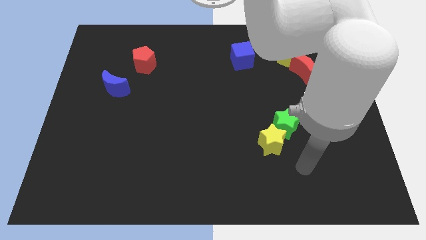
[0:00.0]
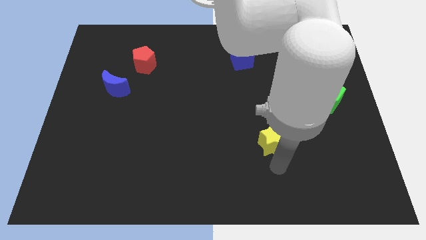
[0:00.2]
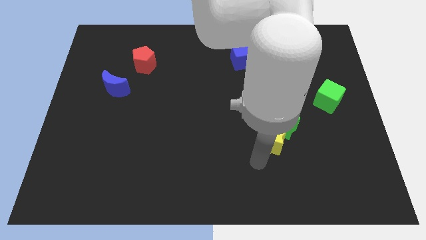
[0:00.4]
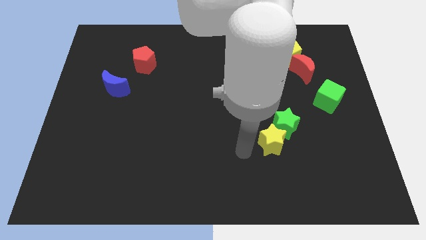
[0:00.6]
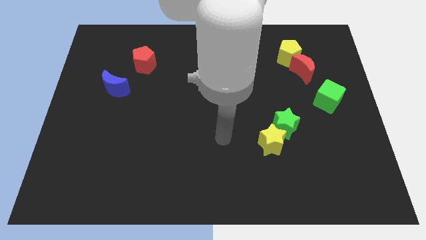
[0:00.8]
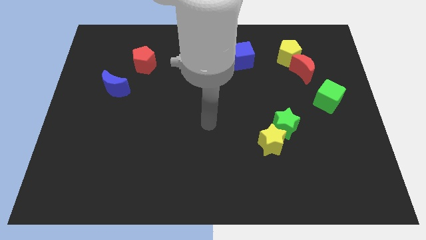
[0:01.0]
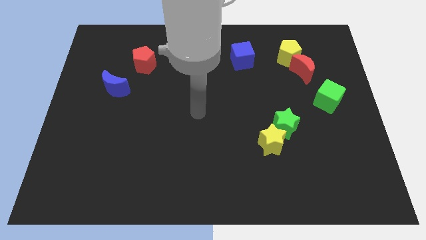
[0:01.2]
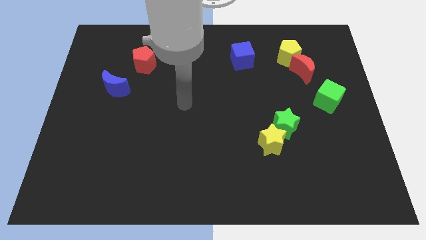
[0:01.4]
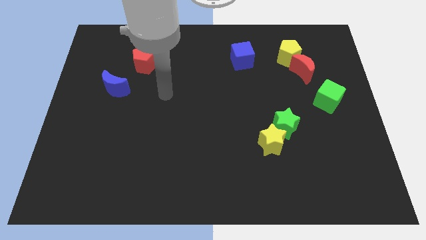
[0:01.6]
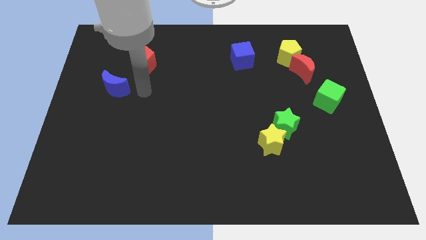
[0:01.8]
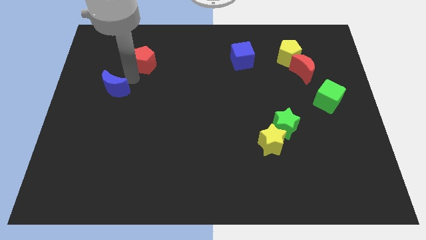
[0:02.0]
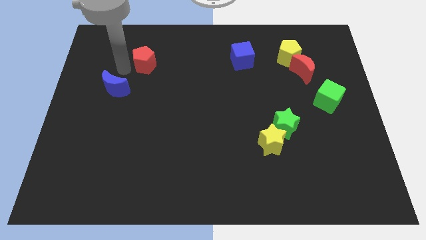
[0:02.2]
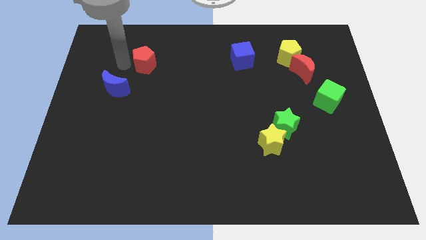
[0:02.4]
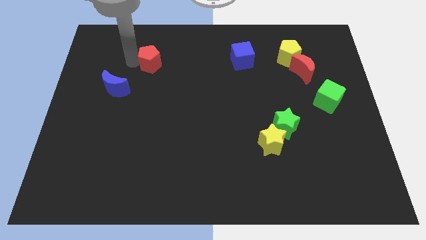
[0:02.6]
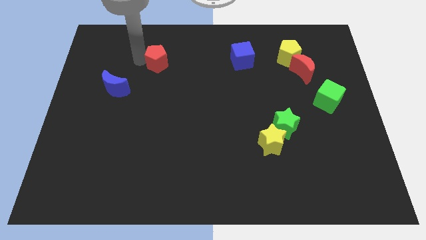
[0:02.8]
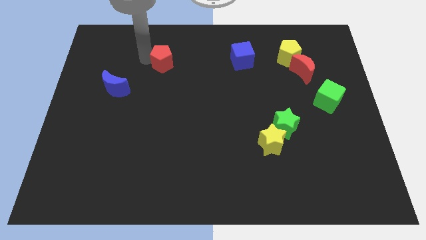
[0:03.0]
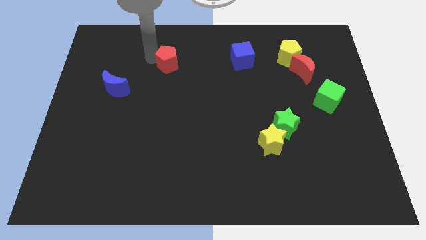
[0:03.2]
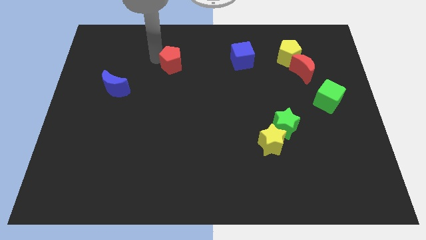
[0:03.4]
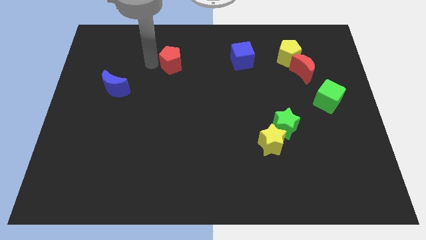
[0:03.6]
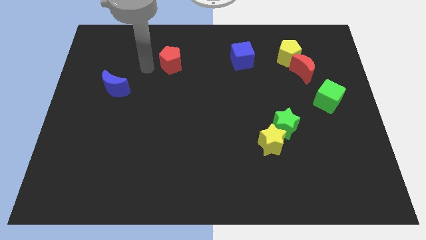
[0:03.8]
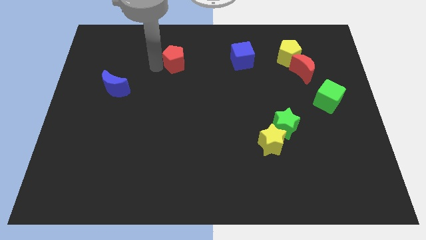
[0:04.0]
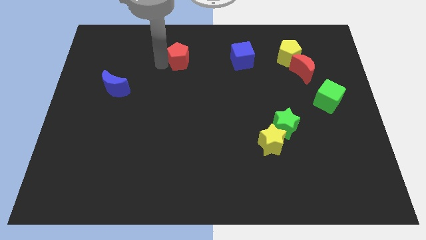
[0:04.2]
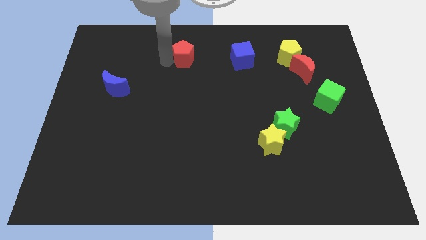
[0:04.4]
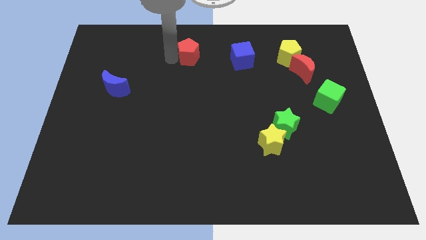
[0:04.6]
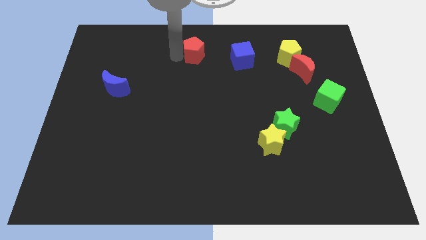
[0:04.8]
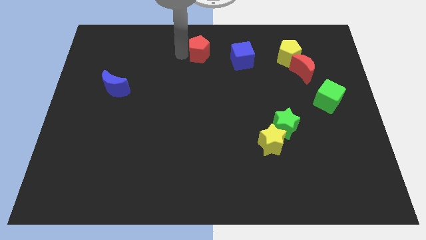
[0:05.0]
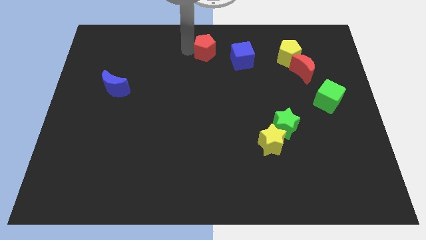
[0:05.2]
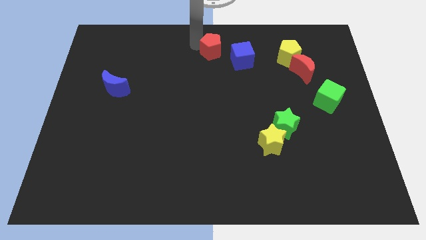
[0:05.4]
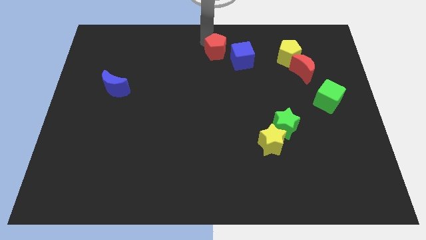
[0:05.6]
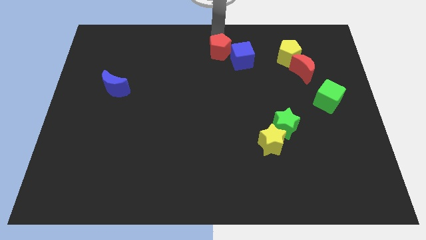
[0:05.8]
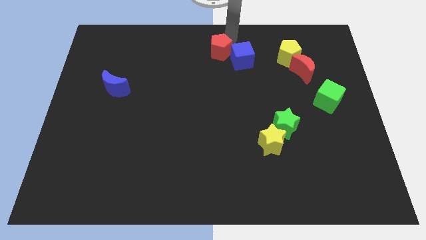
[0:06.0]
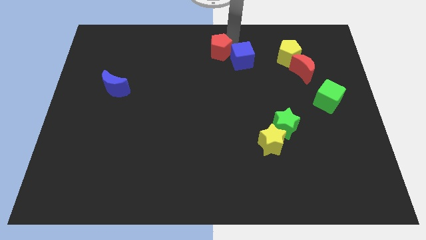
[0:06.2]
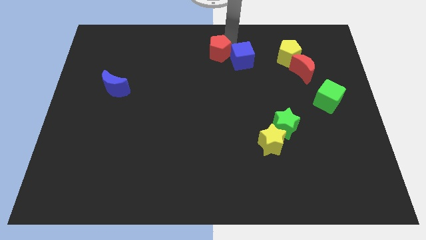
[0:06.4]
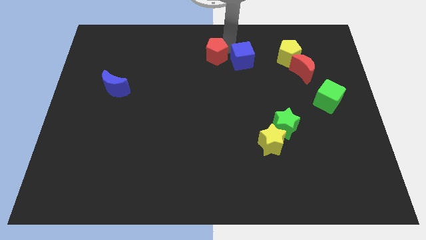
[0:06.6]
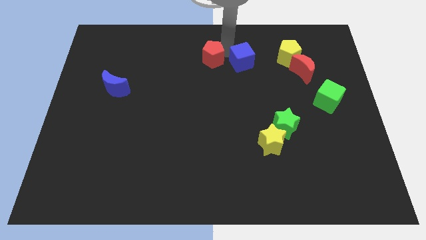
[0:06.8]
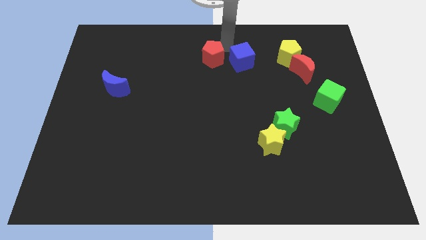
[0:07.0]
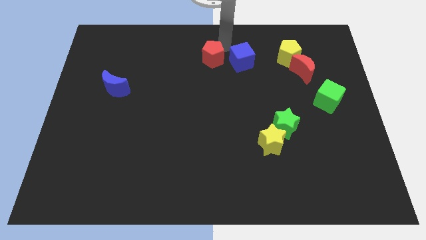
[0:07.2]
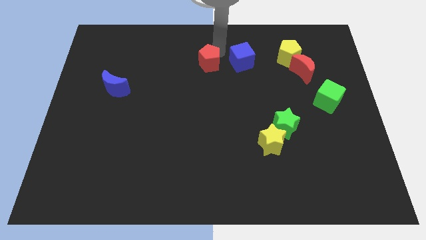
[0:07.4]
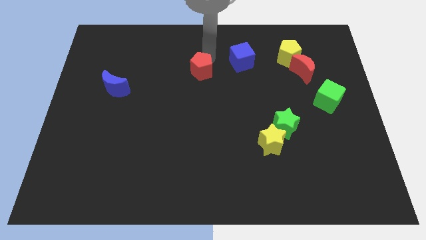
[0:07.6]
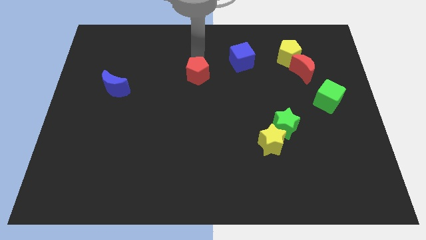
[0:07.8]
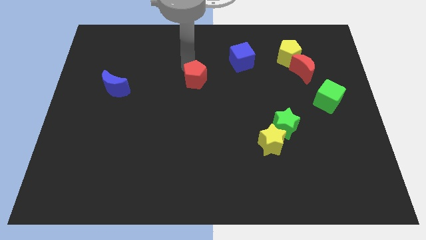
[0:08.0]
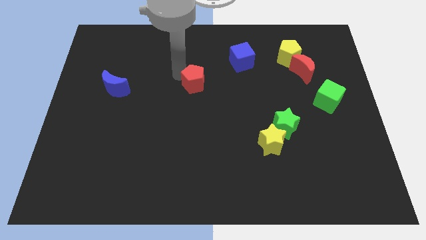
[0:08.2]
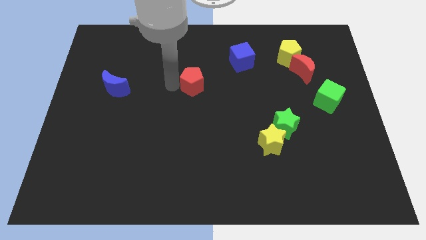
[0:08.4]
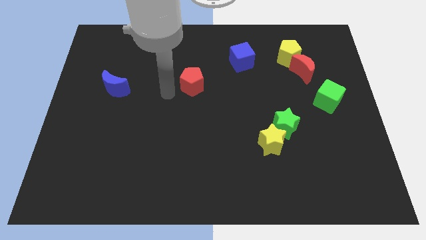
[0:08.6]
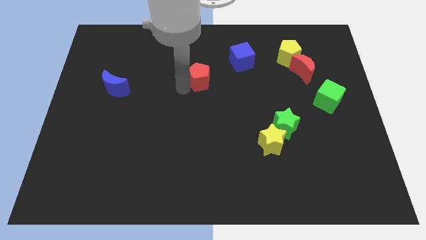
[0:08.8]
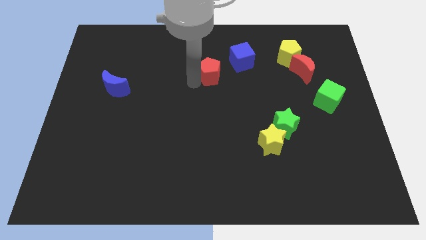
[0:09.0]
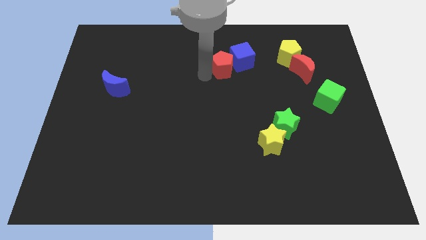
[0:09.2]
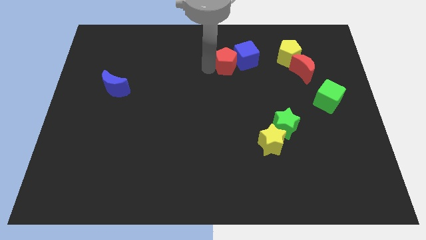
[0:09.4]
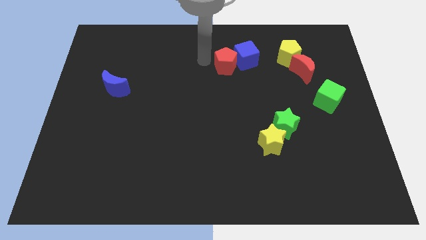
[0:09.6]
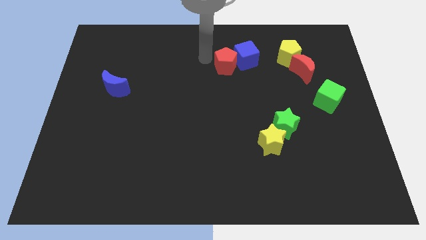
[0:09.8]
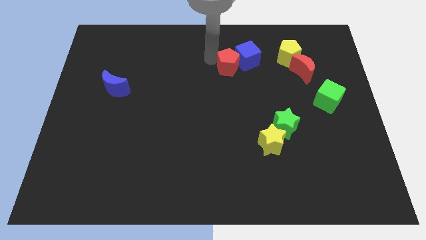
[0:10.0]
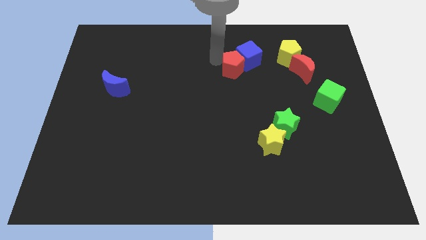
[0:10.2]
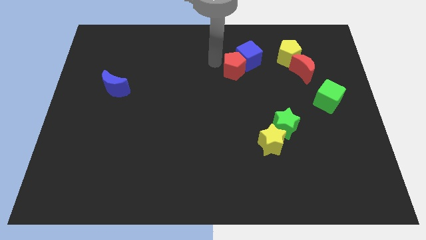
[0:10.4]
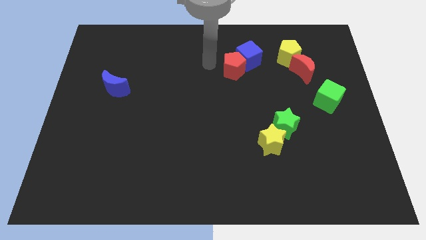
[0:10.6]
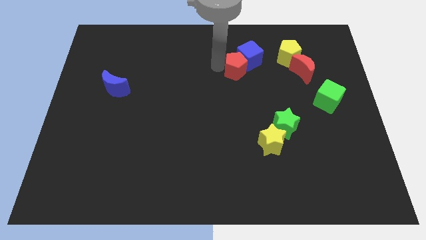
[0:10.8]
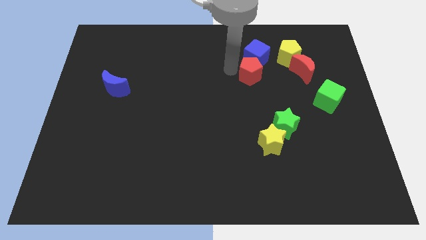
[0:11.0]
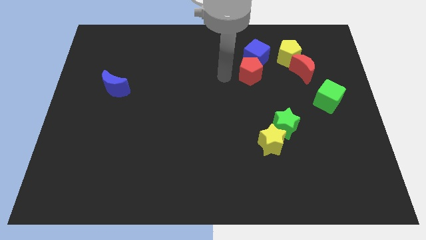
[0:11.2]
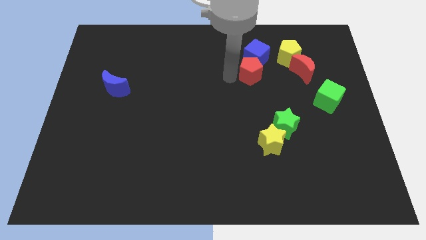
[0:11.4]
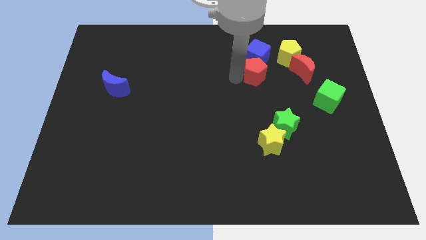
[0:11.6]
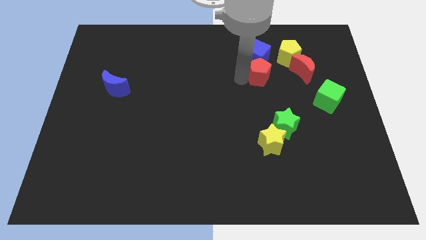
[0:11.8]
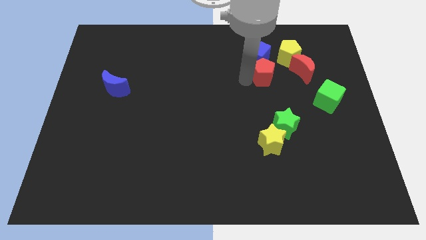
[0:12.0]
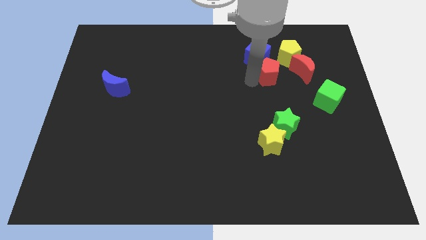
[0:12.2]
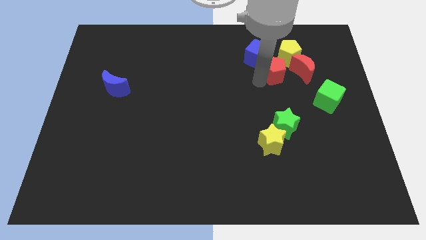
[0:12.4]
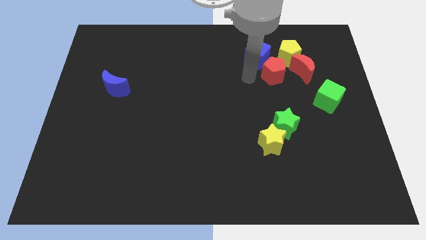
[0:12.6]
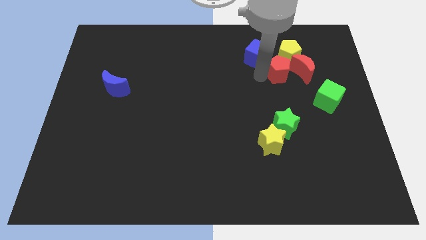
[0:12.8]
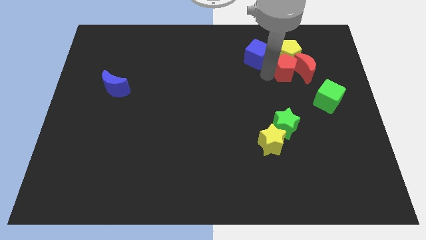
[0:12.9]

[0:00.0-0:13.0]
move the red pentagon next to the red moon
